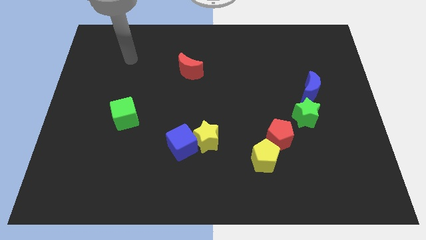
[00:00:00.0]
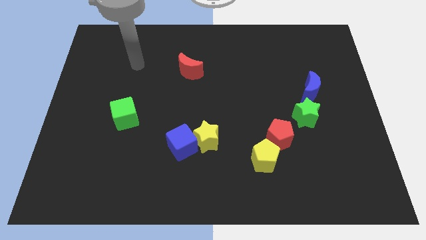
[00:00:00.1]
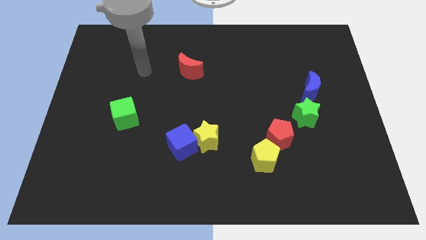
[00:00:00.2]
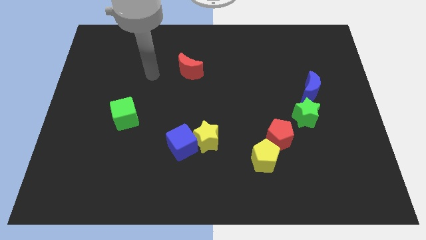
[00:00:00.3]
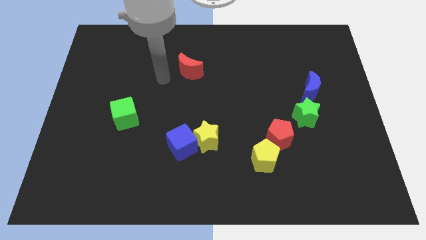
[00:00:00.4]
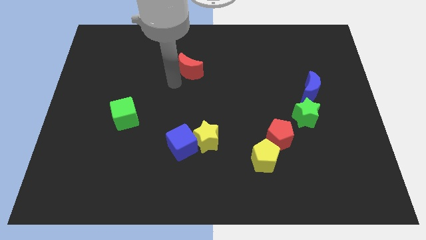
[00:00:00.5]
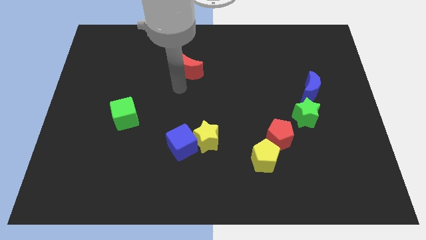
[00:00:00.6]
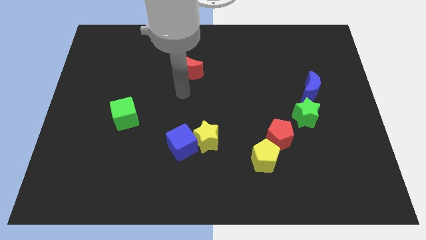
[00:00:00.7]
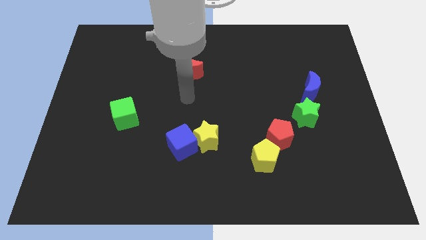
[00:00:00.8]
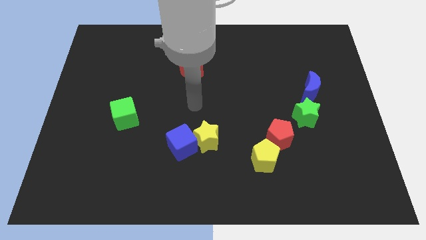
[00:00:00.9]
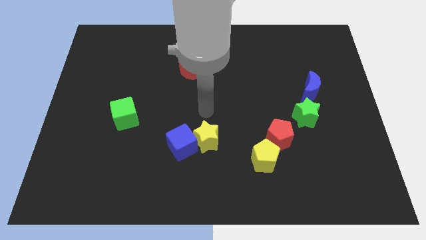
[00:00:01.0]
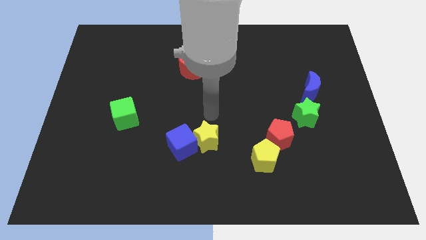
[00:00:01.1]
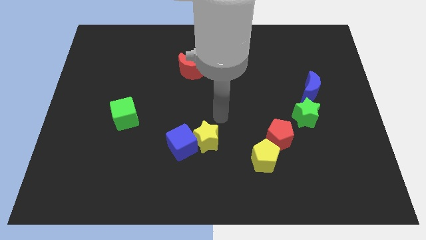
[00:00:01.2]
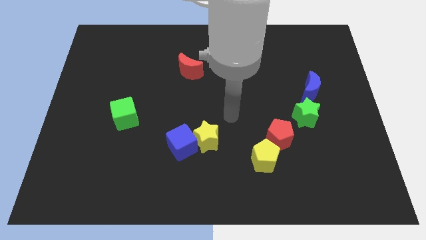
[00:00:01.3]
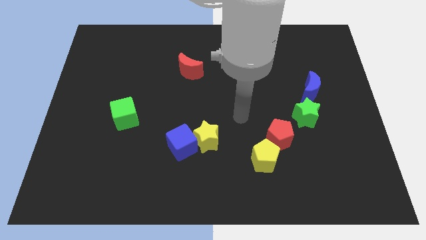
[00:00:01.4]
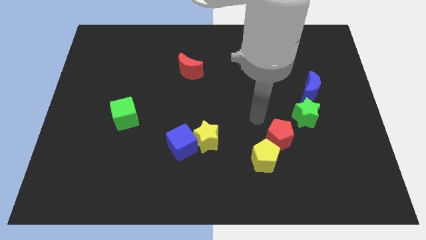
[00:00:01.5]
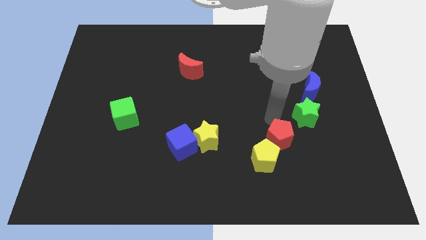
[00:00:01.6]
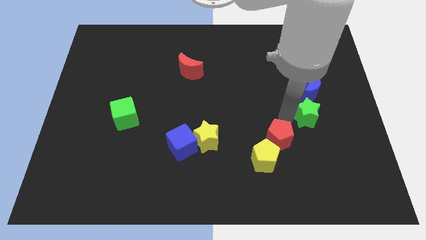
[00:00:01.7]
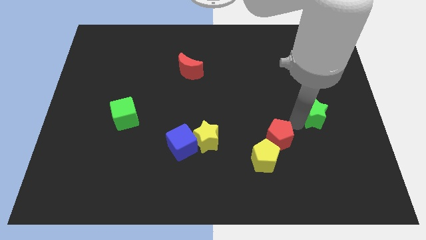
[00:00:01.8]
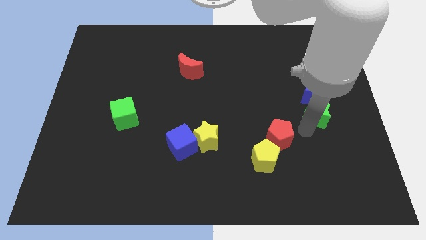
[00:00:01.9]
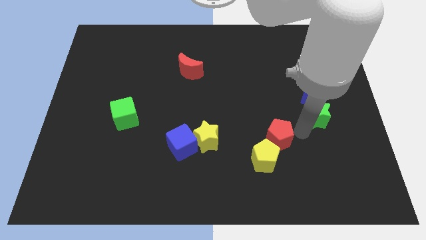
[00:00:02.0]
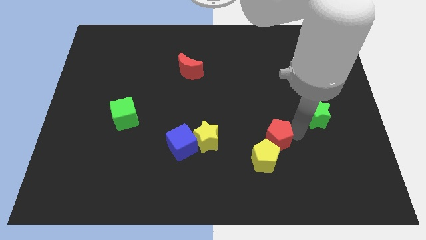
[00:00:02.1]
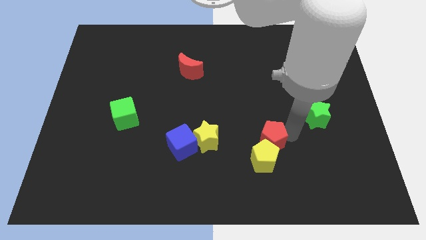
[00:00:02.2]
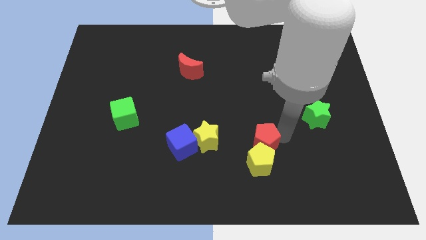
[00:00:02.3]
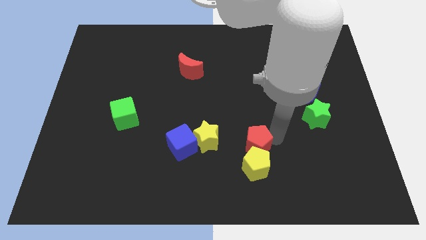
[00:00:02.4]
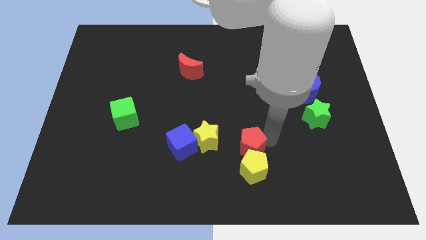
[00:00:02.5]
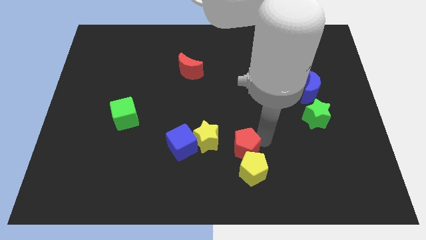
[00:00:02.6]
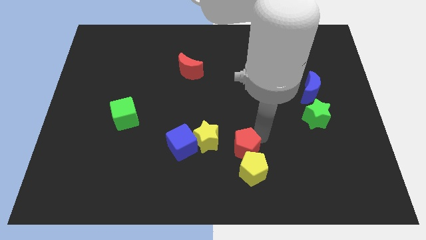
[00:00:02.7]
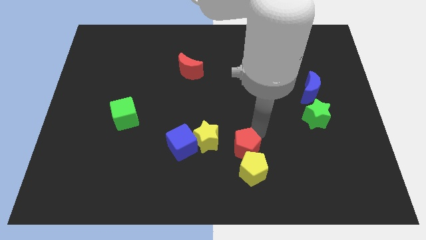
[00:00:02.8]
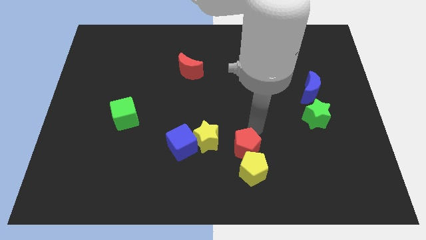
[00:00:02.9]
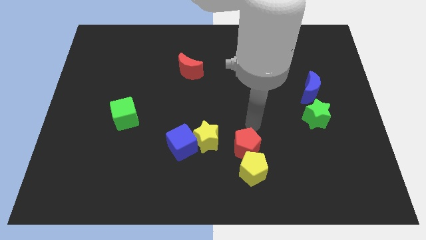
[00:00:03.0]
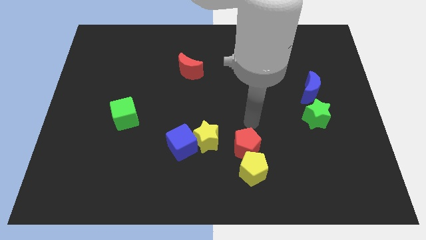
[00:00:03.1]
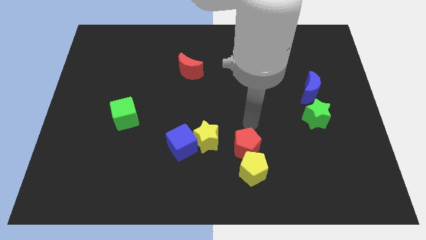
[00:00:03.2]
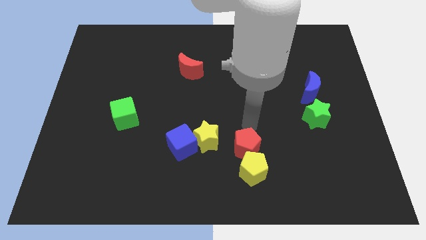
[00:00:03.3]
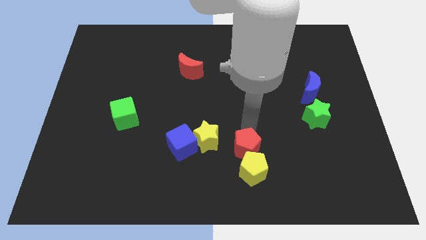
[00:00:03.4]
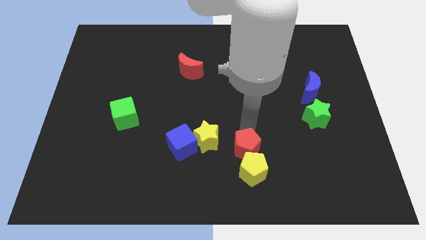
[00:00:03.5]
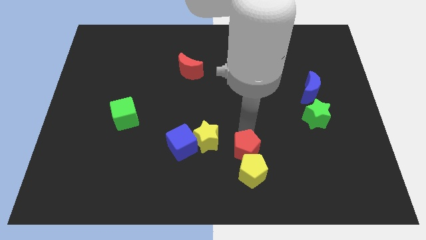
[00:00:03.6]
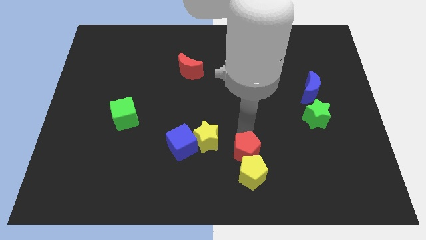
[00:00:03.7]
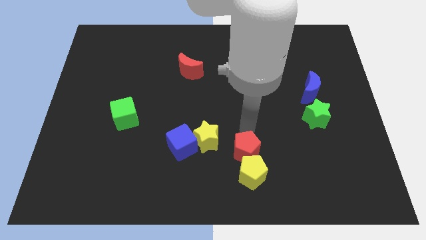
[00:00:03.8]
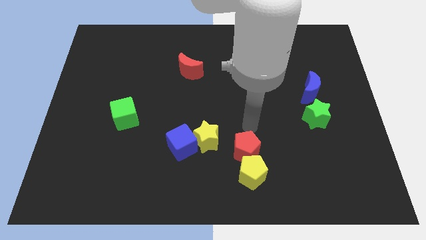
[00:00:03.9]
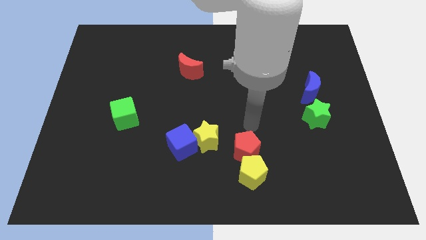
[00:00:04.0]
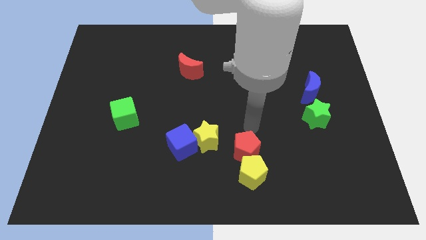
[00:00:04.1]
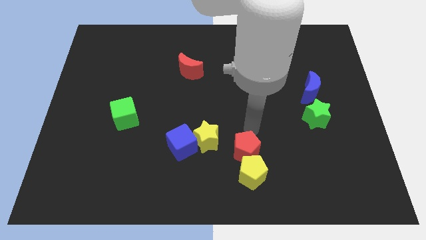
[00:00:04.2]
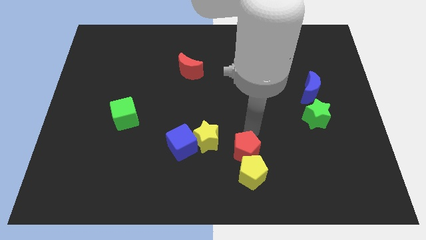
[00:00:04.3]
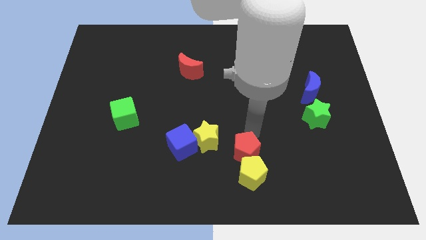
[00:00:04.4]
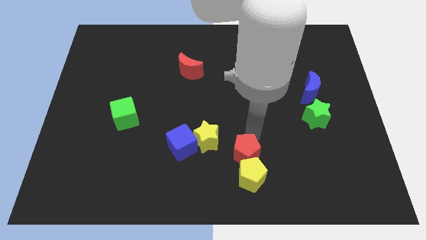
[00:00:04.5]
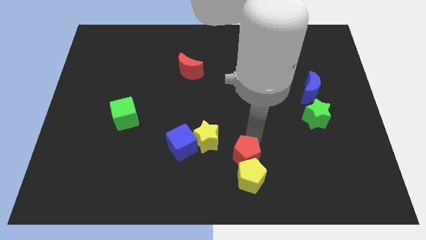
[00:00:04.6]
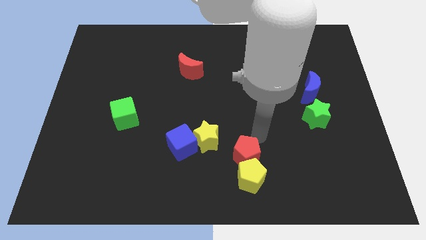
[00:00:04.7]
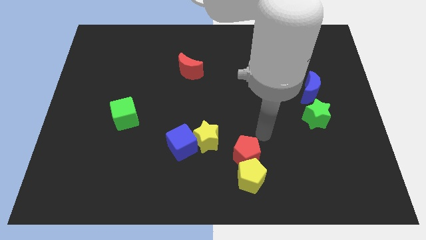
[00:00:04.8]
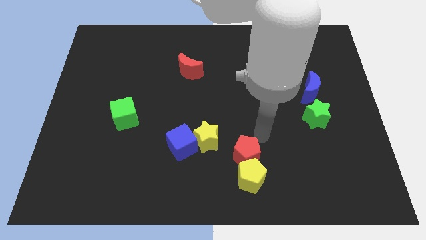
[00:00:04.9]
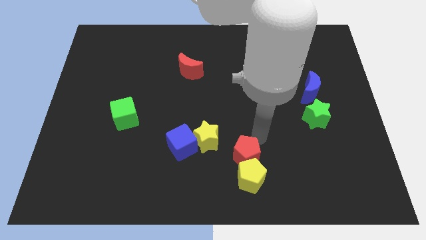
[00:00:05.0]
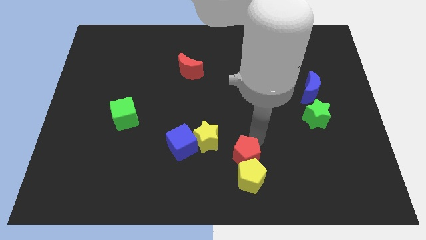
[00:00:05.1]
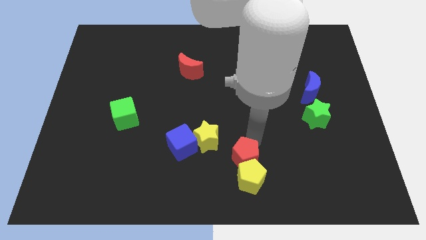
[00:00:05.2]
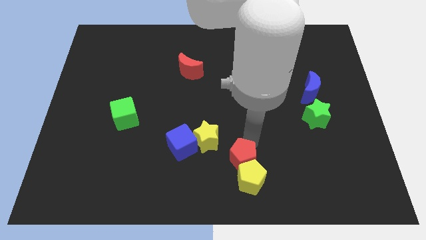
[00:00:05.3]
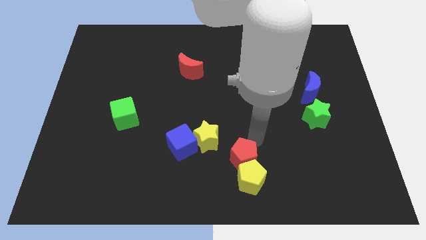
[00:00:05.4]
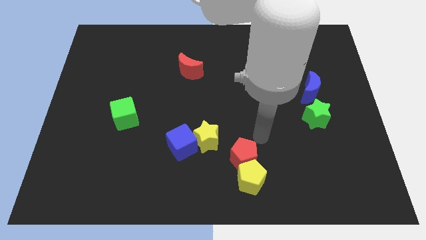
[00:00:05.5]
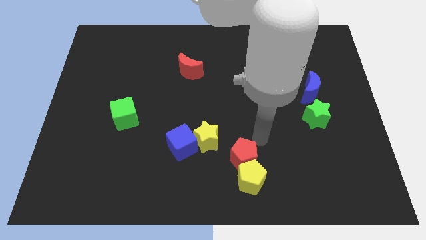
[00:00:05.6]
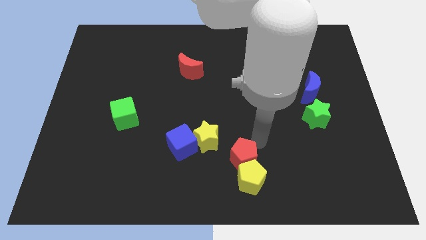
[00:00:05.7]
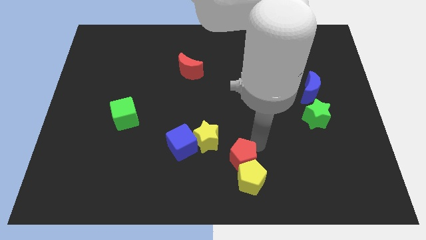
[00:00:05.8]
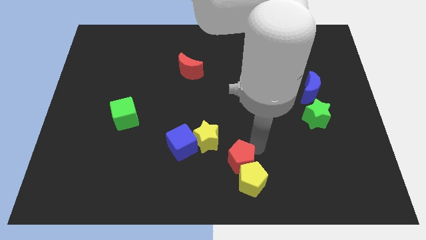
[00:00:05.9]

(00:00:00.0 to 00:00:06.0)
slide the red pentagon to the bottom

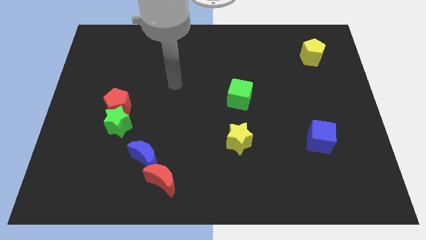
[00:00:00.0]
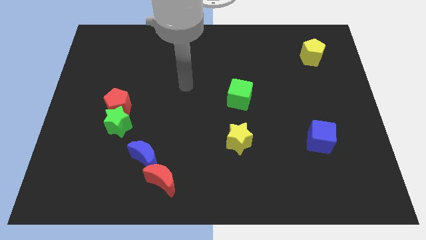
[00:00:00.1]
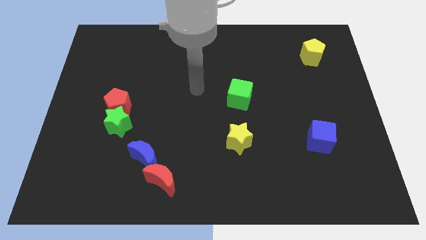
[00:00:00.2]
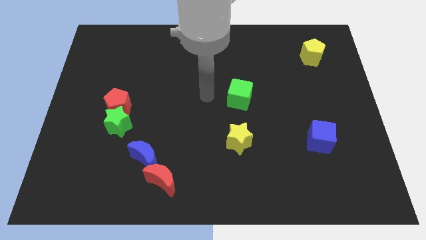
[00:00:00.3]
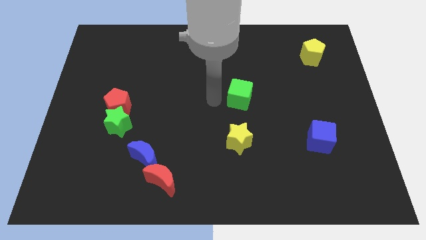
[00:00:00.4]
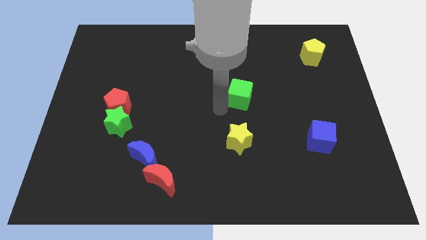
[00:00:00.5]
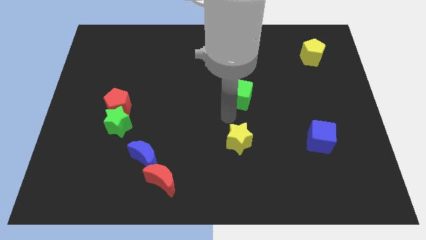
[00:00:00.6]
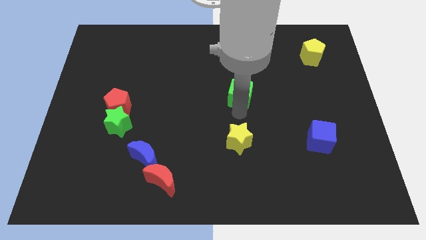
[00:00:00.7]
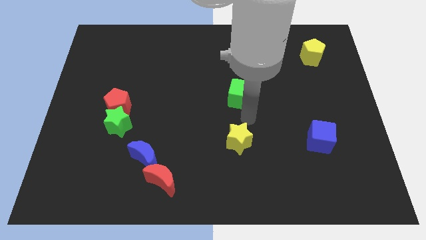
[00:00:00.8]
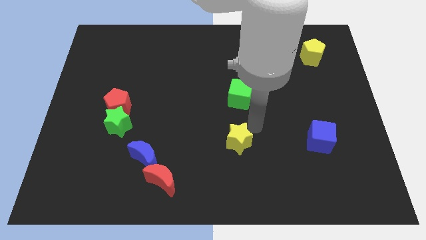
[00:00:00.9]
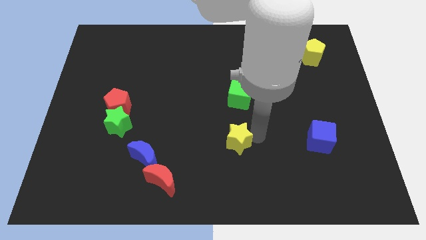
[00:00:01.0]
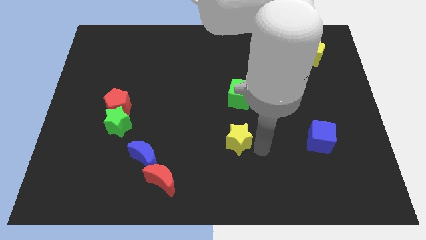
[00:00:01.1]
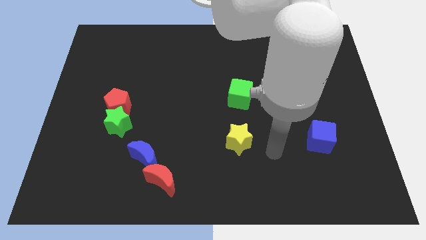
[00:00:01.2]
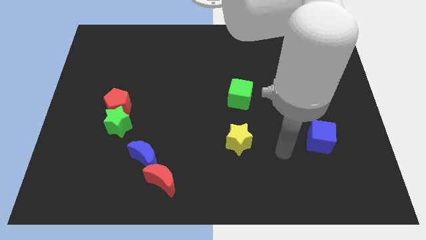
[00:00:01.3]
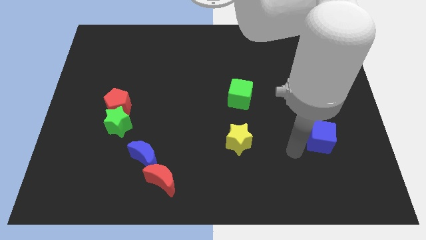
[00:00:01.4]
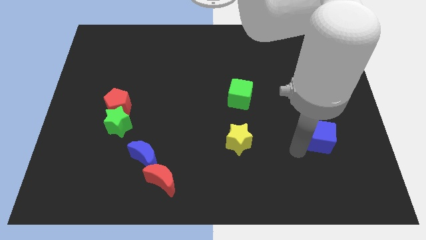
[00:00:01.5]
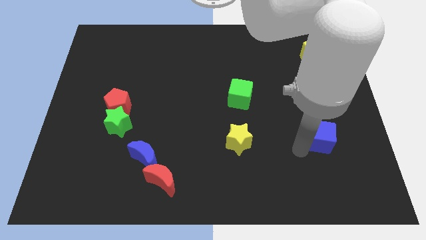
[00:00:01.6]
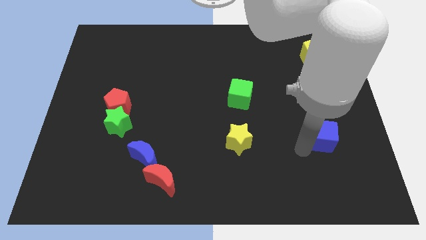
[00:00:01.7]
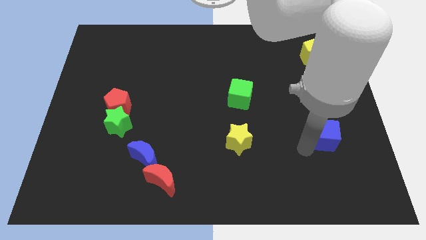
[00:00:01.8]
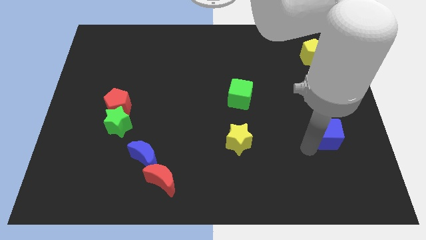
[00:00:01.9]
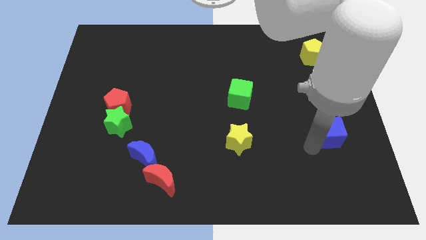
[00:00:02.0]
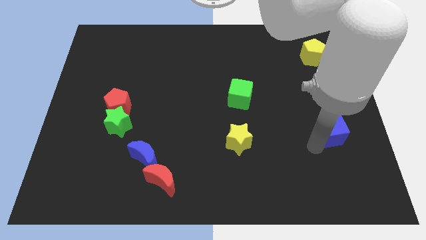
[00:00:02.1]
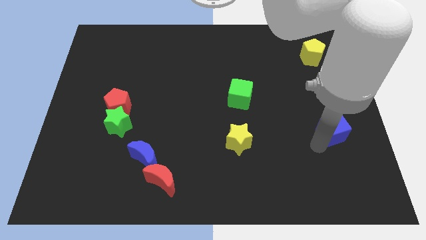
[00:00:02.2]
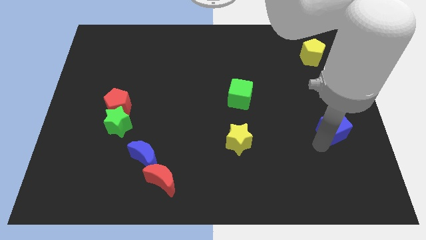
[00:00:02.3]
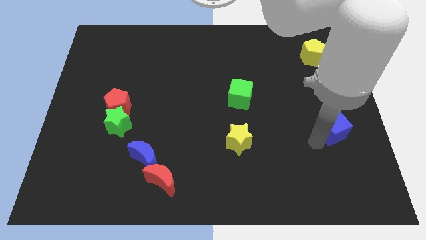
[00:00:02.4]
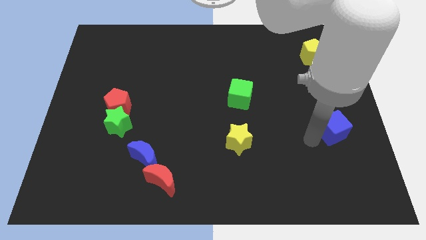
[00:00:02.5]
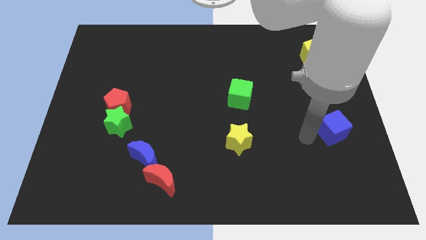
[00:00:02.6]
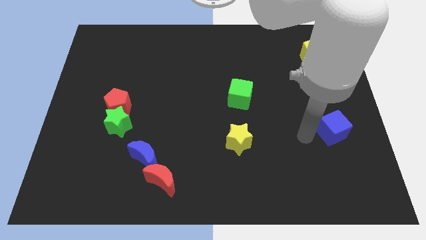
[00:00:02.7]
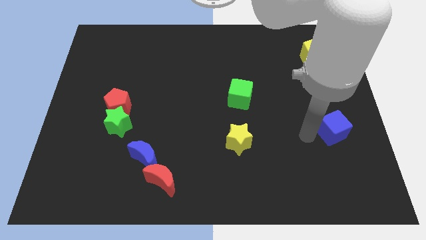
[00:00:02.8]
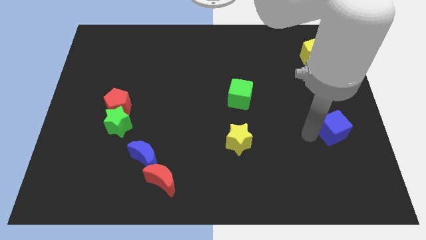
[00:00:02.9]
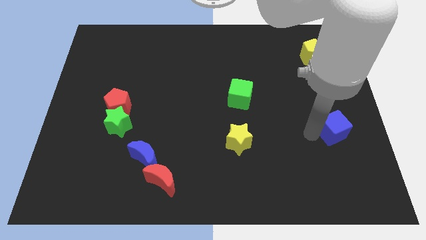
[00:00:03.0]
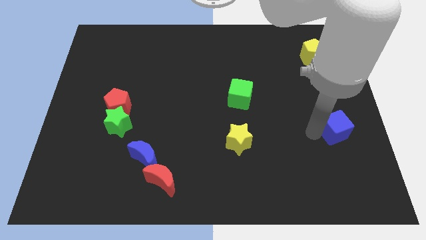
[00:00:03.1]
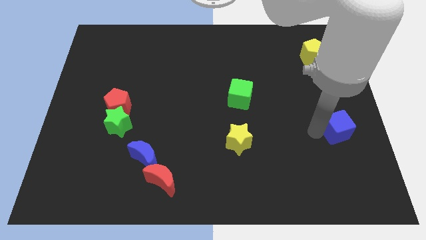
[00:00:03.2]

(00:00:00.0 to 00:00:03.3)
put the blue cube to the center right
